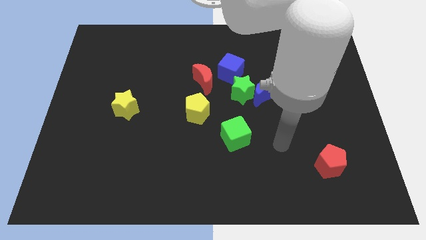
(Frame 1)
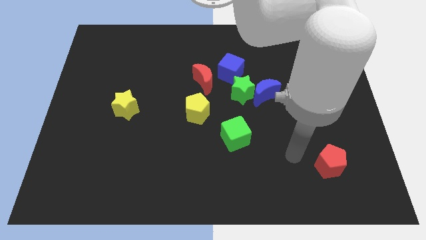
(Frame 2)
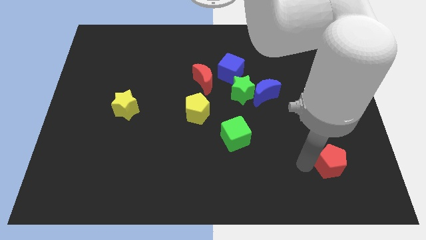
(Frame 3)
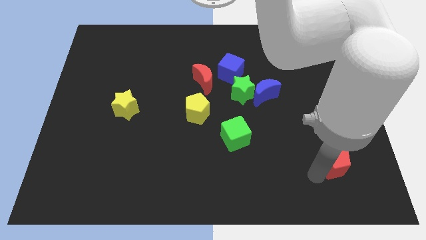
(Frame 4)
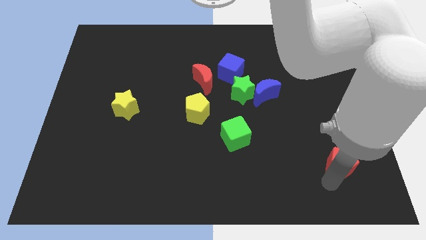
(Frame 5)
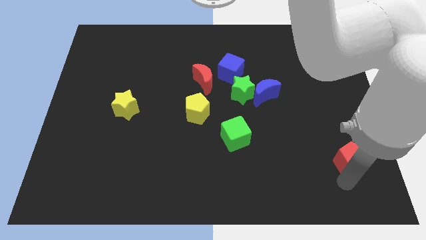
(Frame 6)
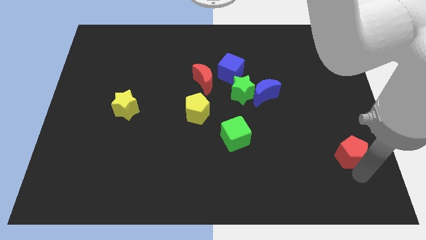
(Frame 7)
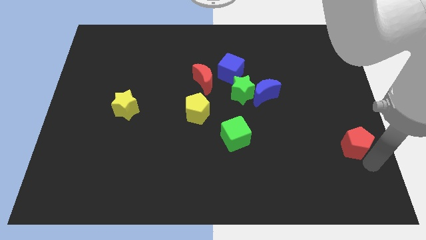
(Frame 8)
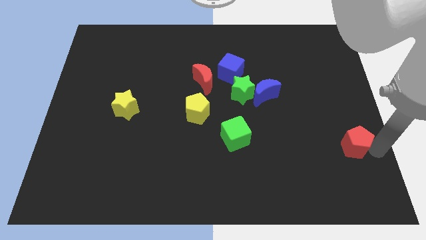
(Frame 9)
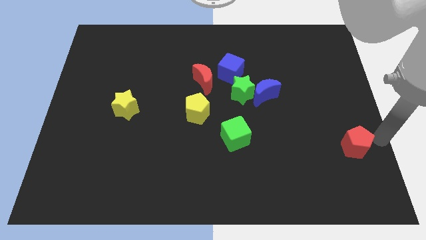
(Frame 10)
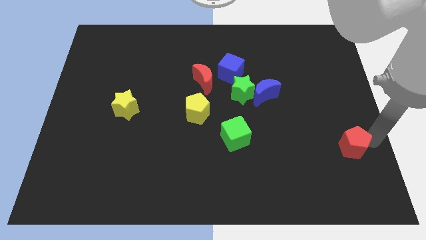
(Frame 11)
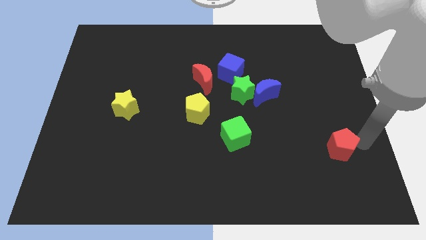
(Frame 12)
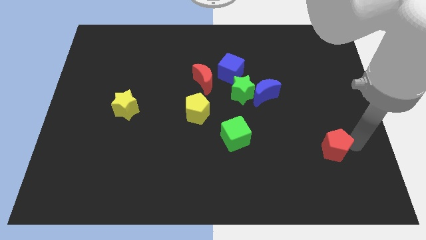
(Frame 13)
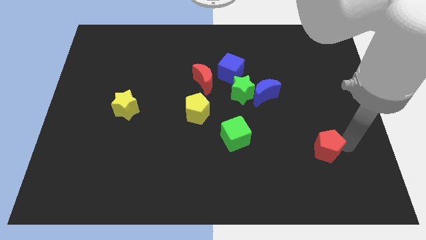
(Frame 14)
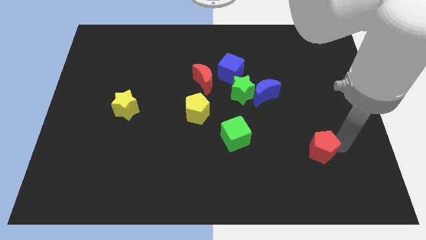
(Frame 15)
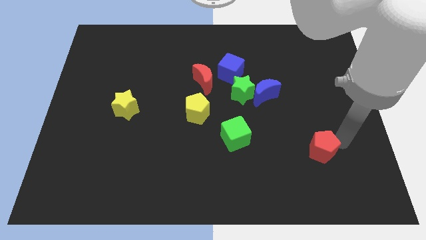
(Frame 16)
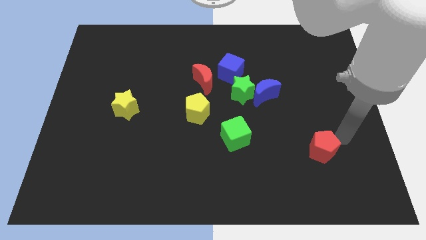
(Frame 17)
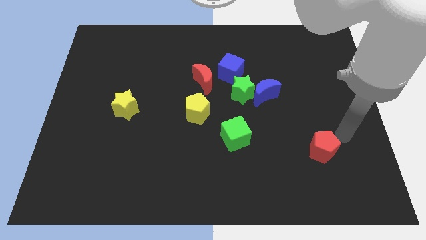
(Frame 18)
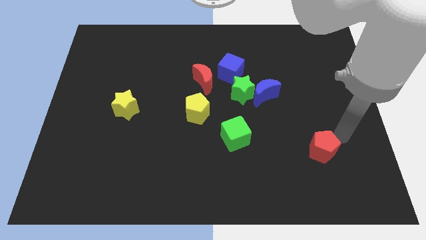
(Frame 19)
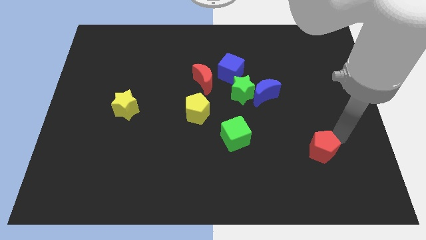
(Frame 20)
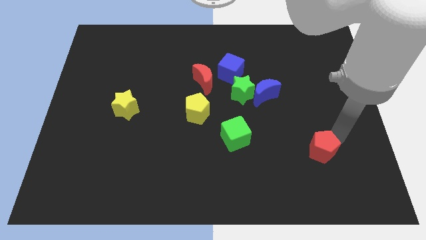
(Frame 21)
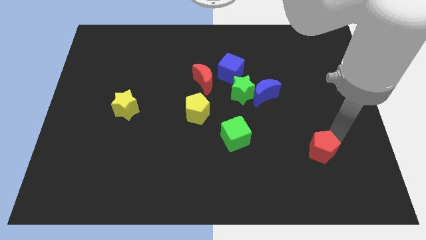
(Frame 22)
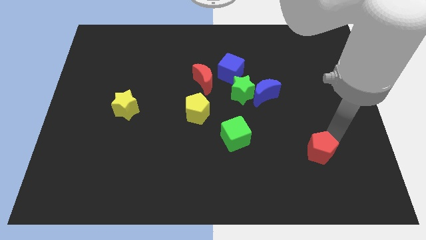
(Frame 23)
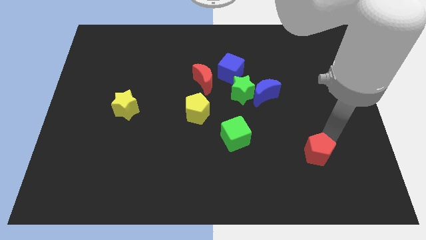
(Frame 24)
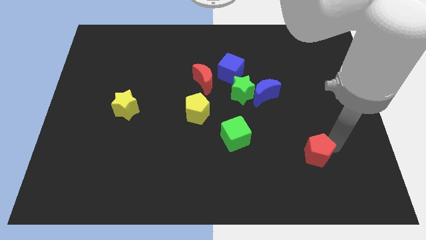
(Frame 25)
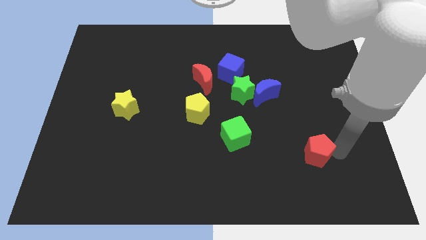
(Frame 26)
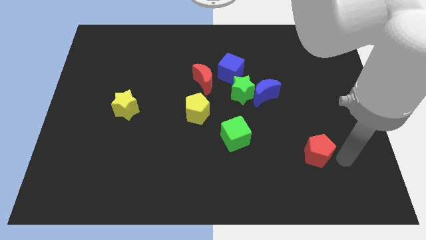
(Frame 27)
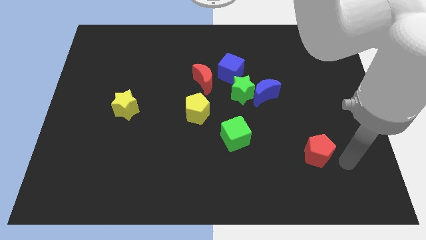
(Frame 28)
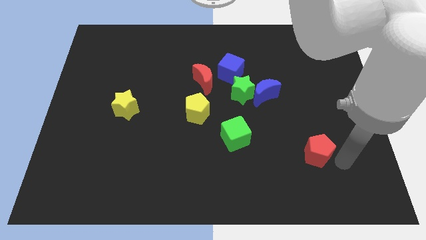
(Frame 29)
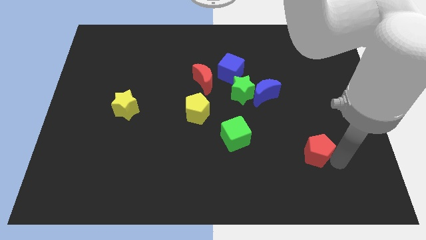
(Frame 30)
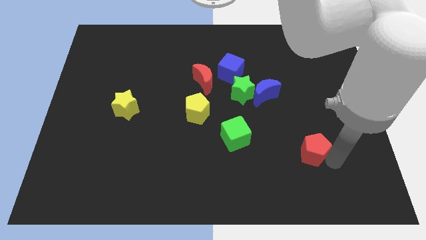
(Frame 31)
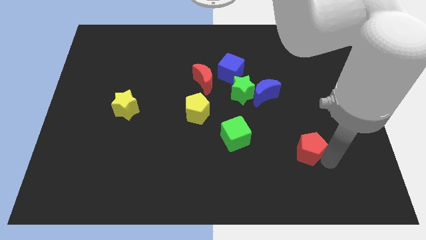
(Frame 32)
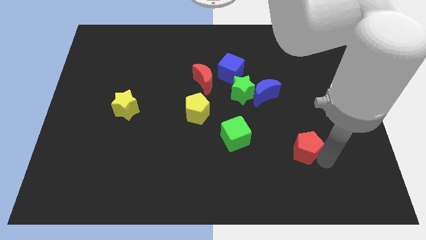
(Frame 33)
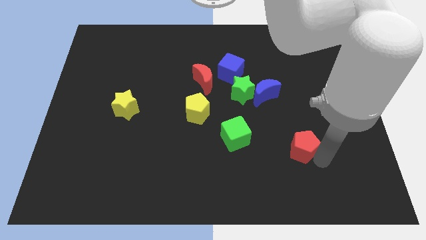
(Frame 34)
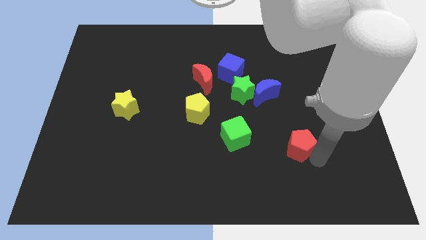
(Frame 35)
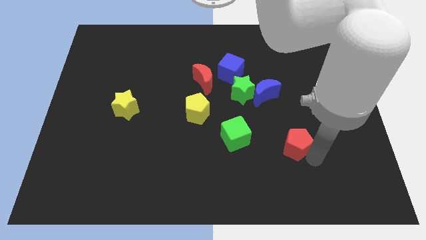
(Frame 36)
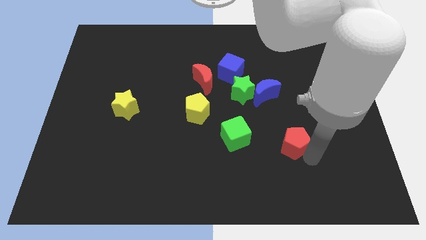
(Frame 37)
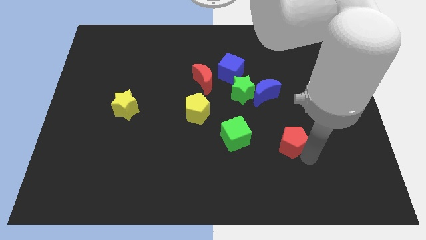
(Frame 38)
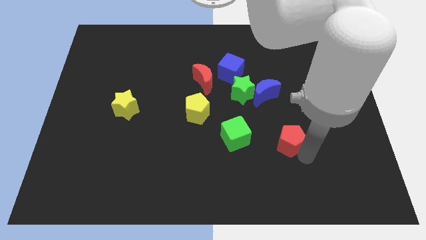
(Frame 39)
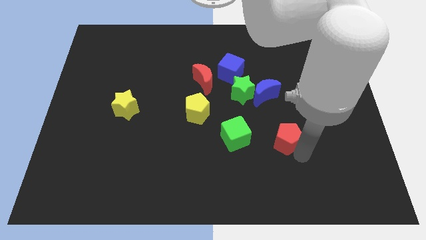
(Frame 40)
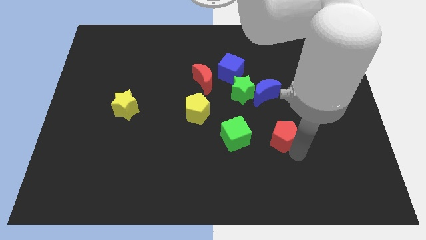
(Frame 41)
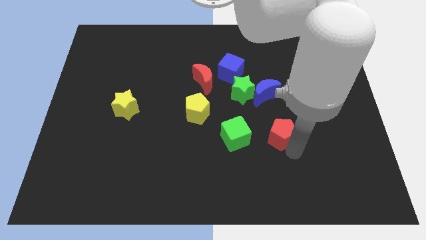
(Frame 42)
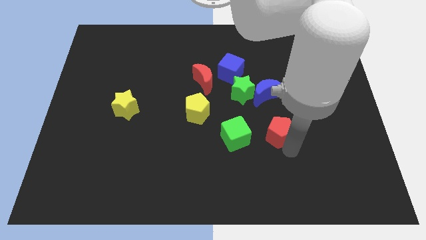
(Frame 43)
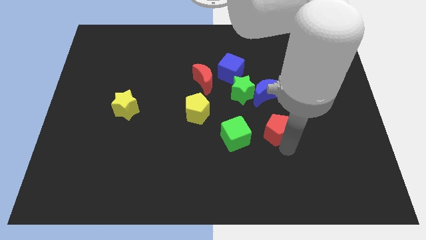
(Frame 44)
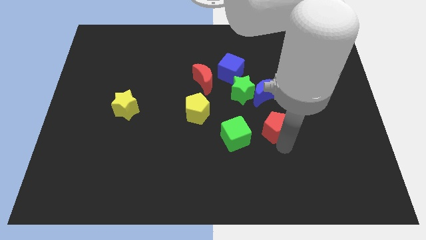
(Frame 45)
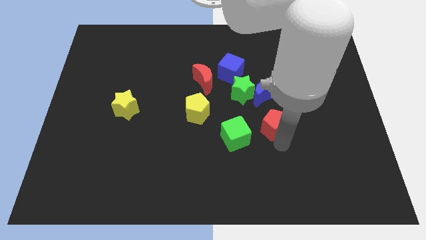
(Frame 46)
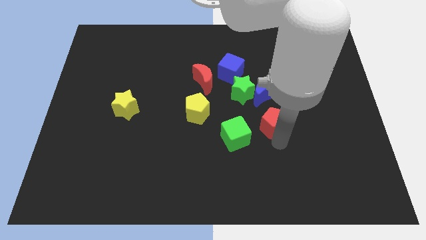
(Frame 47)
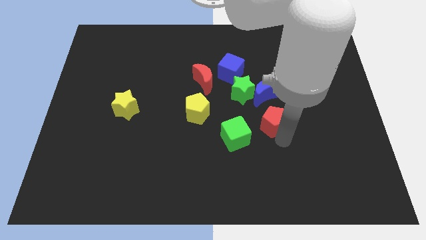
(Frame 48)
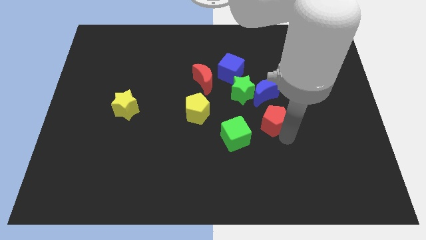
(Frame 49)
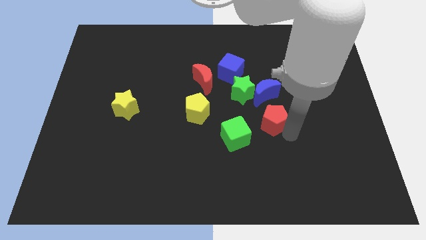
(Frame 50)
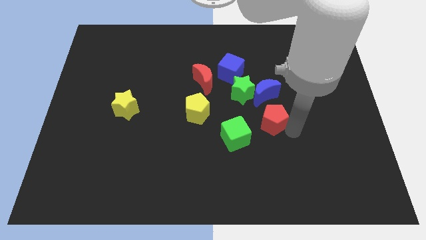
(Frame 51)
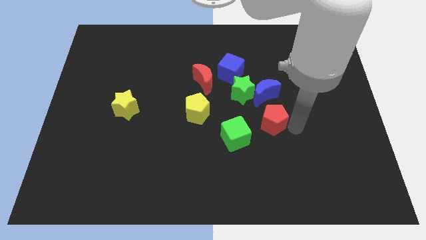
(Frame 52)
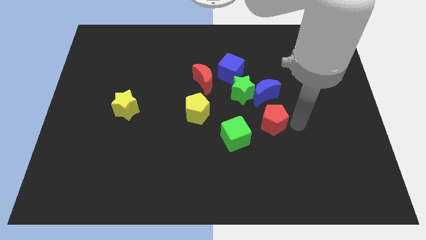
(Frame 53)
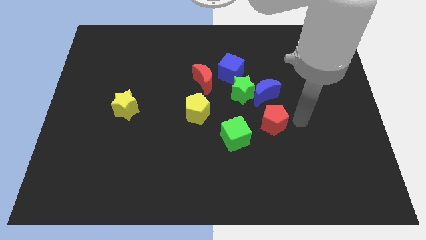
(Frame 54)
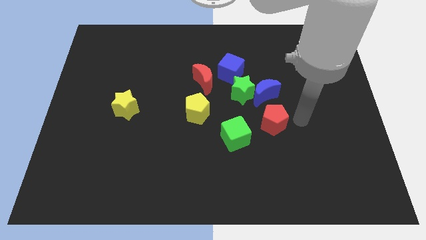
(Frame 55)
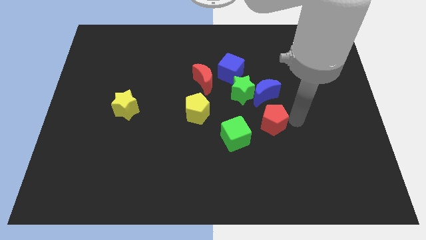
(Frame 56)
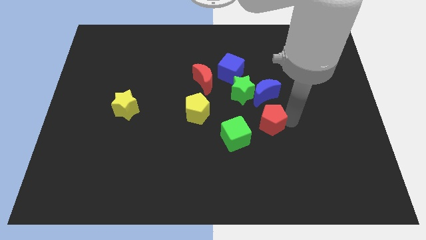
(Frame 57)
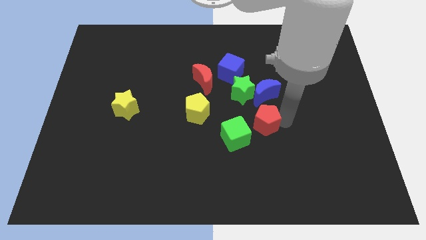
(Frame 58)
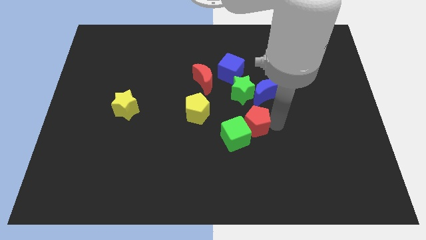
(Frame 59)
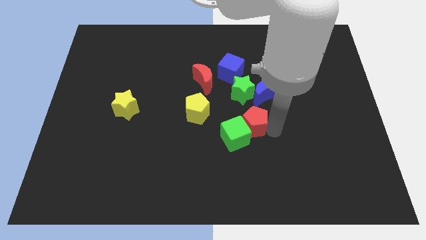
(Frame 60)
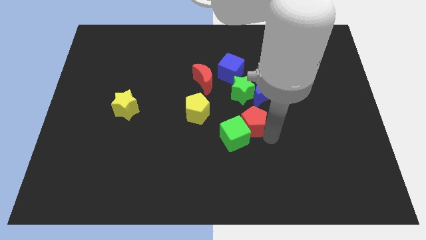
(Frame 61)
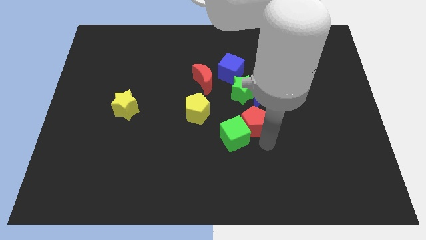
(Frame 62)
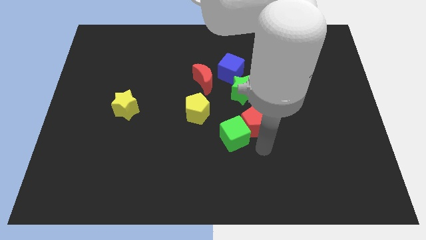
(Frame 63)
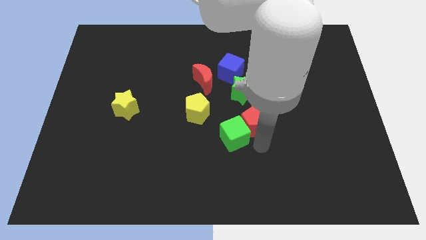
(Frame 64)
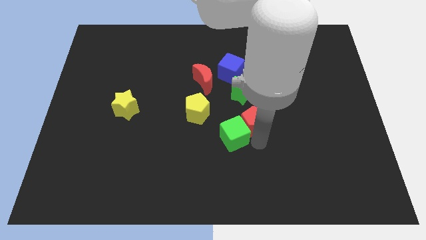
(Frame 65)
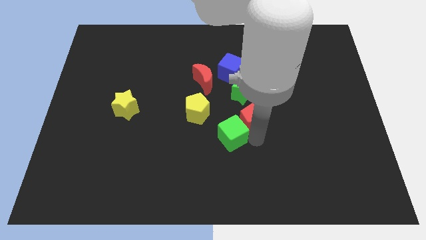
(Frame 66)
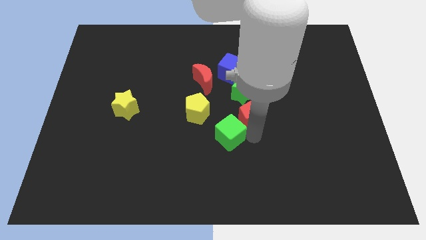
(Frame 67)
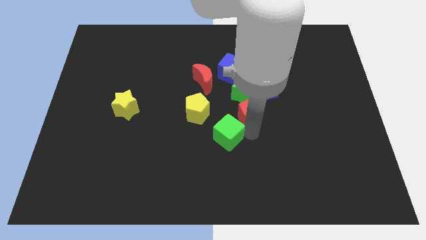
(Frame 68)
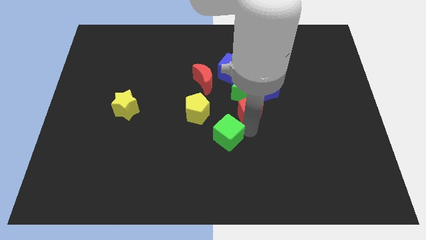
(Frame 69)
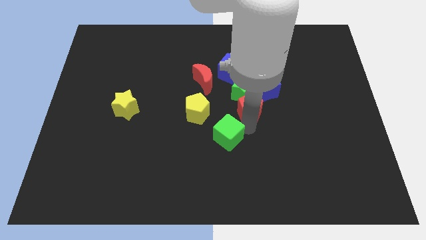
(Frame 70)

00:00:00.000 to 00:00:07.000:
slide the red pentagon next to the green star

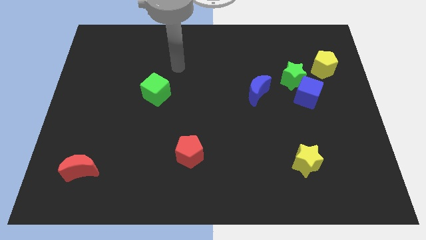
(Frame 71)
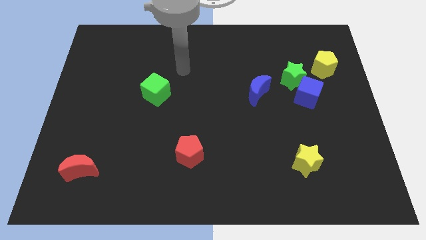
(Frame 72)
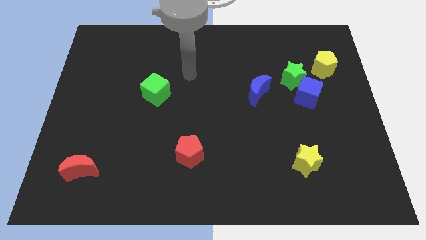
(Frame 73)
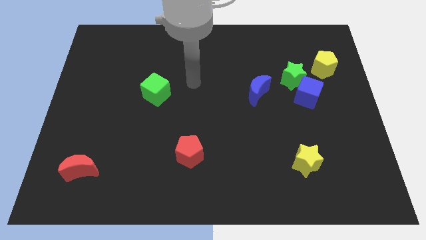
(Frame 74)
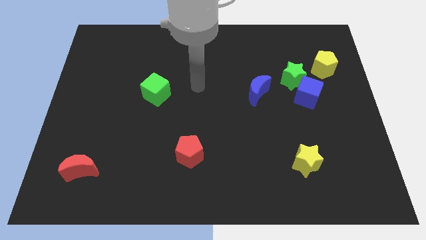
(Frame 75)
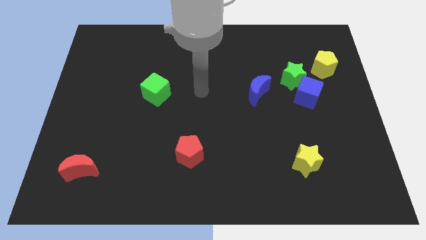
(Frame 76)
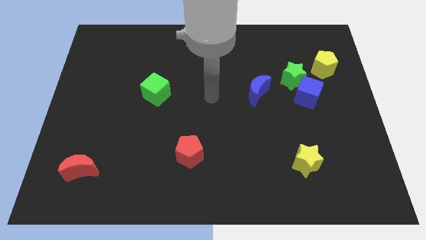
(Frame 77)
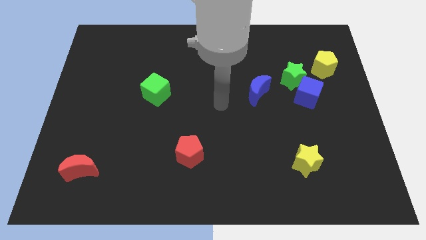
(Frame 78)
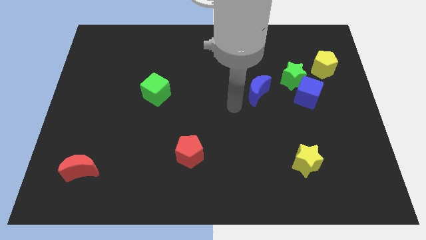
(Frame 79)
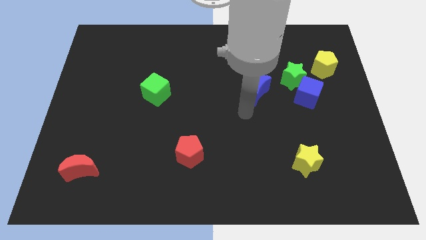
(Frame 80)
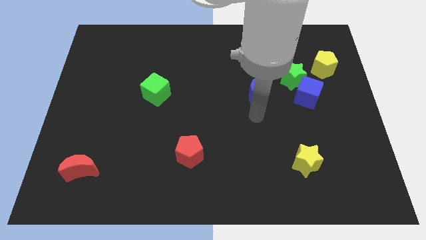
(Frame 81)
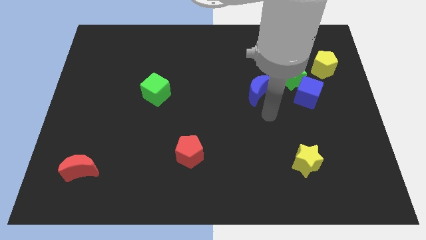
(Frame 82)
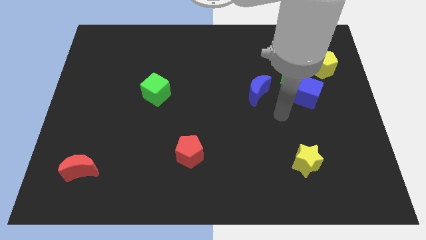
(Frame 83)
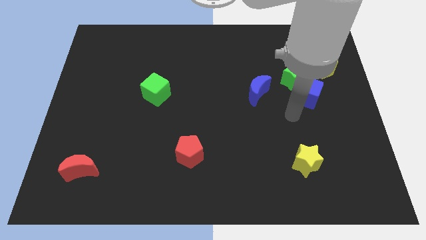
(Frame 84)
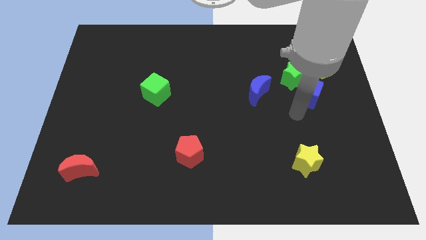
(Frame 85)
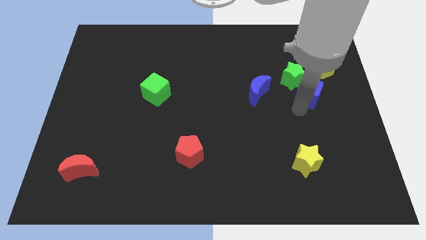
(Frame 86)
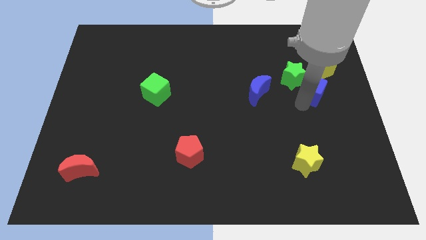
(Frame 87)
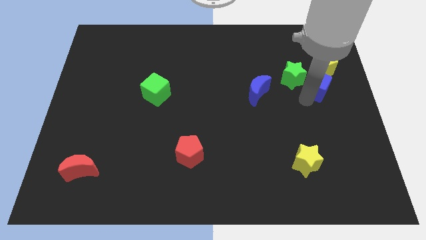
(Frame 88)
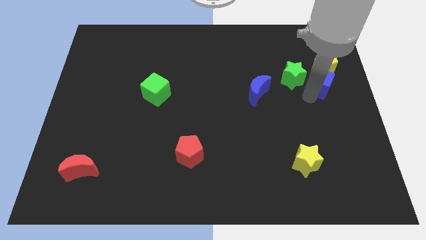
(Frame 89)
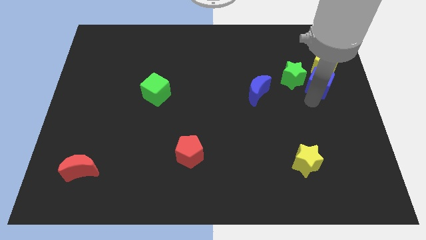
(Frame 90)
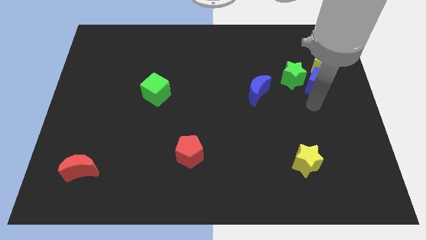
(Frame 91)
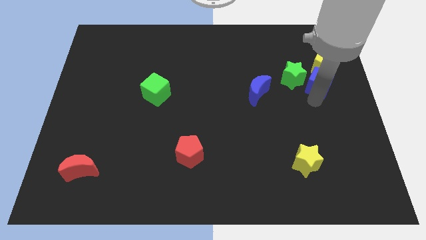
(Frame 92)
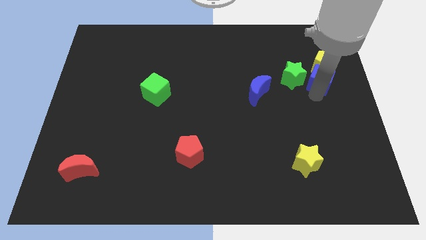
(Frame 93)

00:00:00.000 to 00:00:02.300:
move the blue cube next to the yellow pentagon
